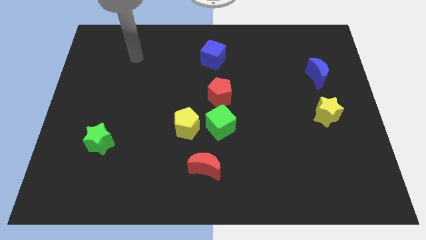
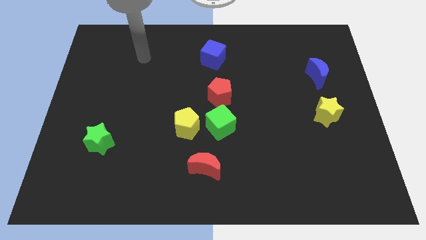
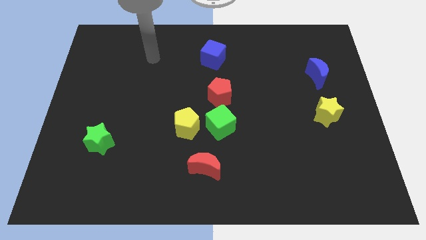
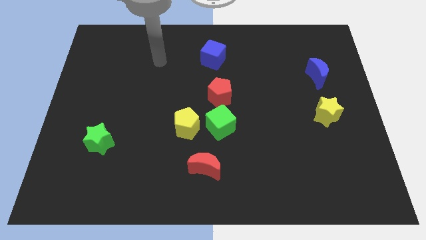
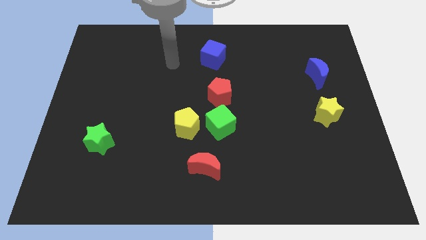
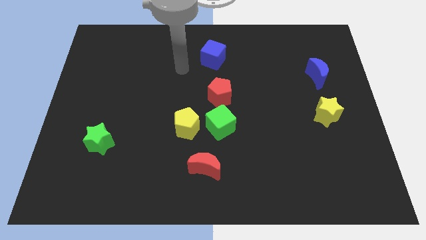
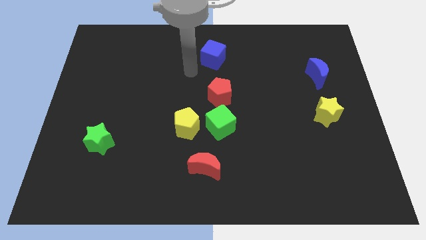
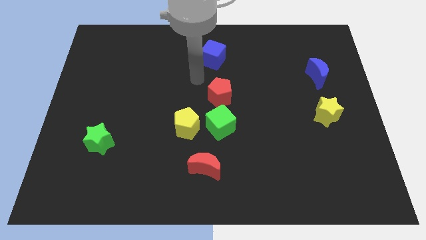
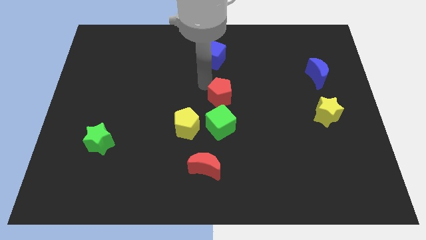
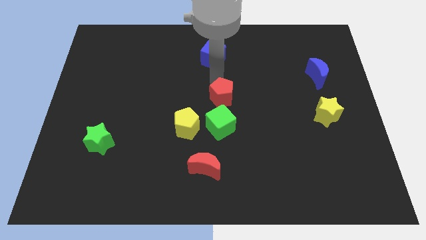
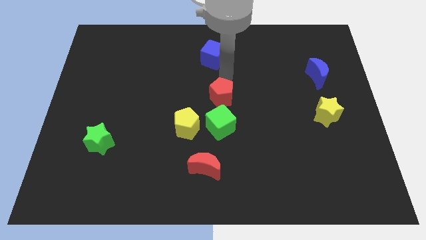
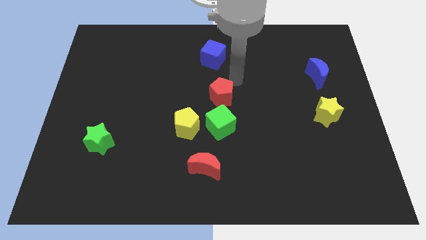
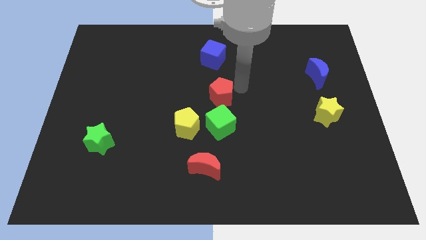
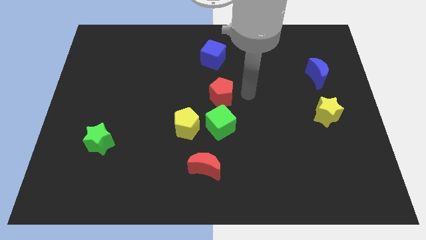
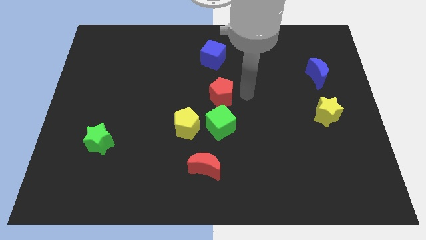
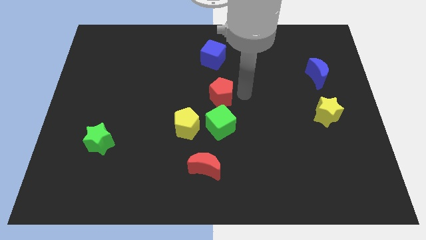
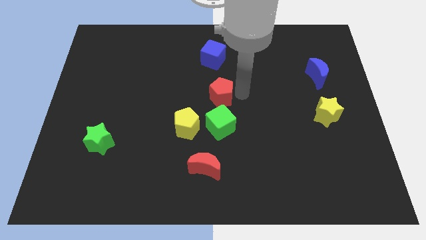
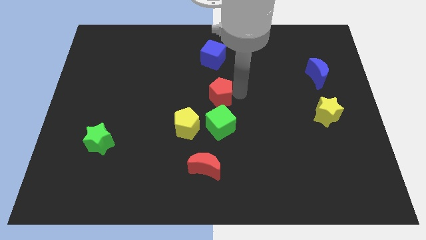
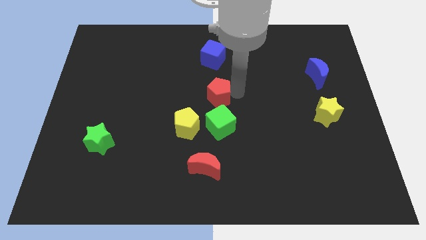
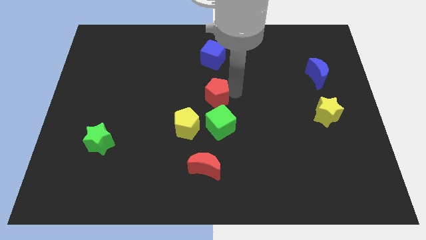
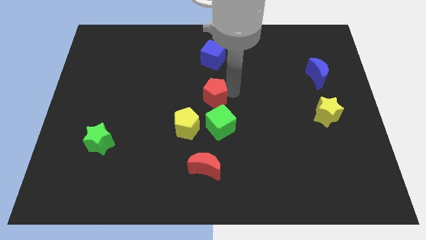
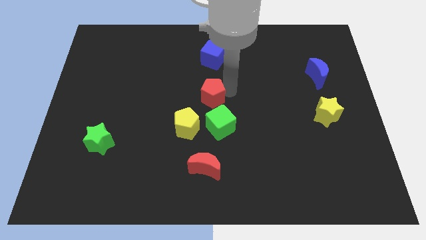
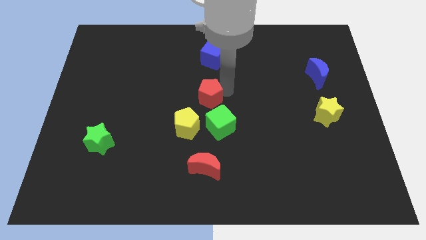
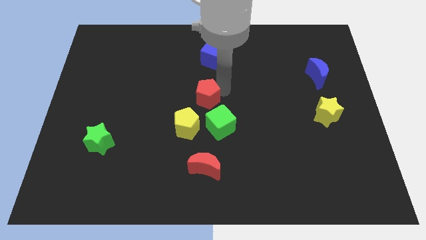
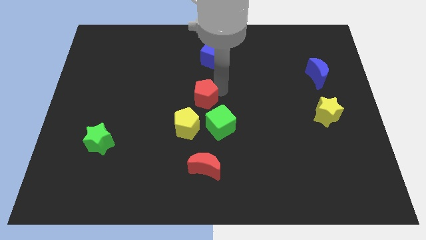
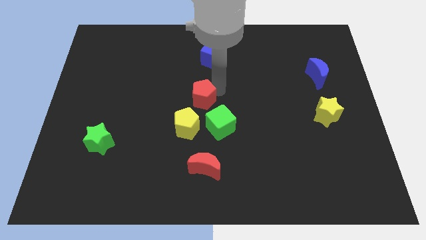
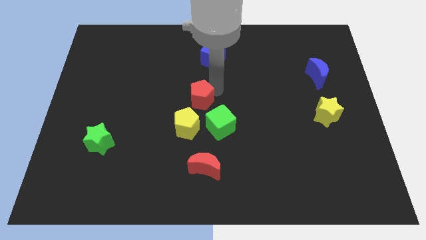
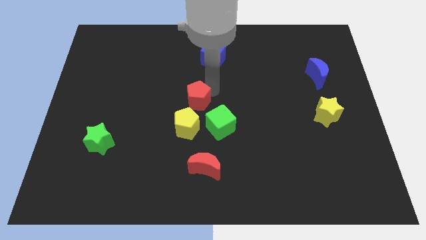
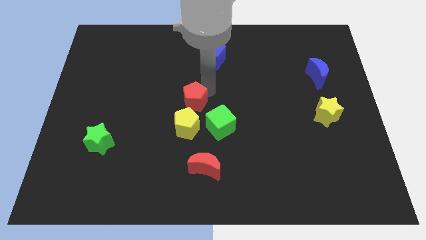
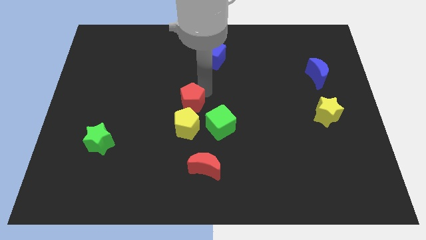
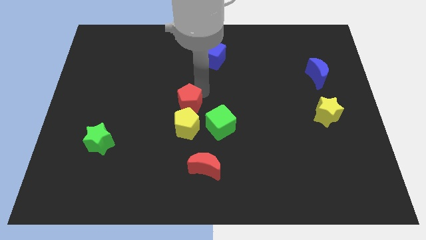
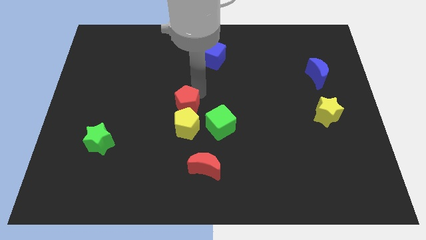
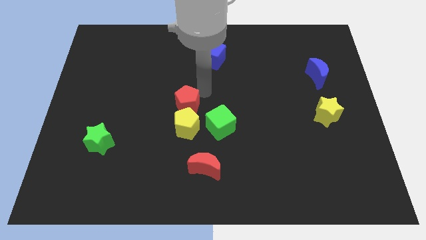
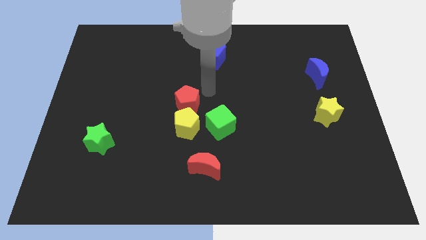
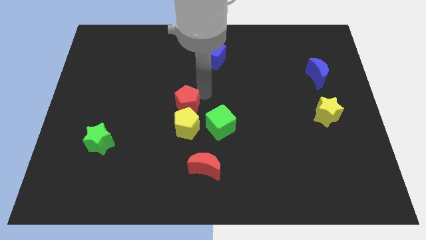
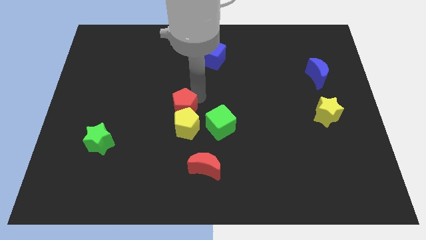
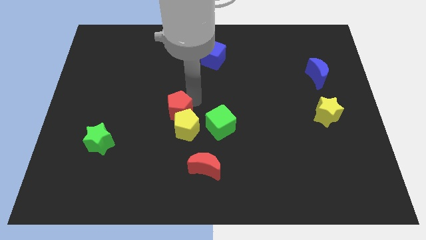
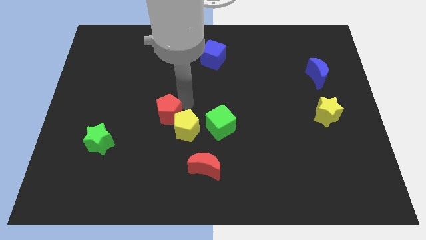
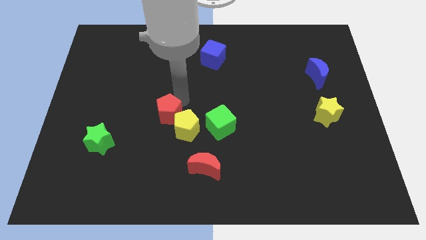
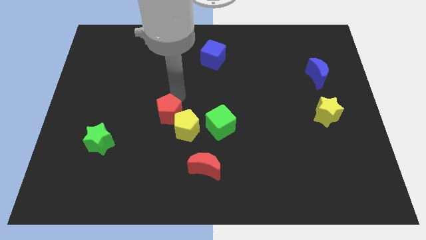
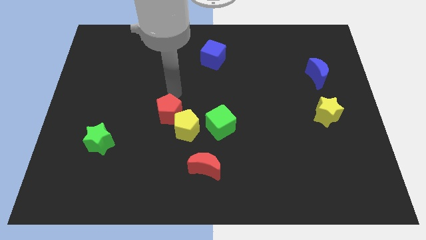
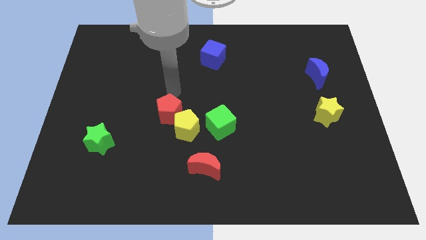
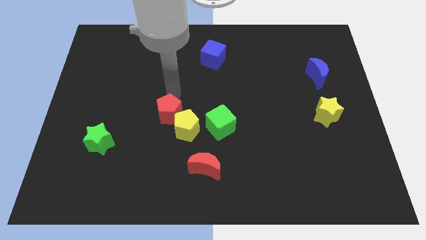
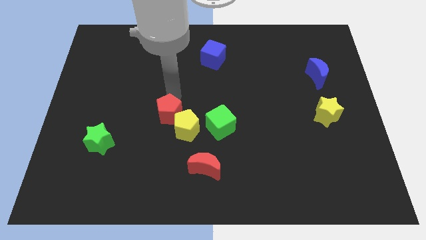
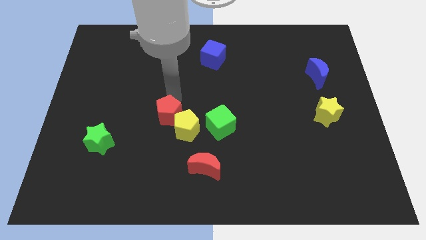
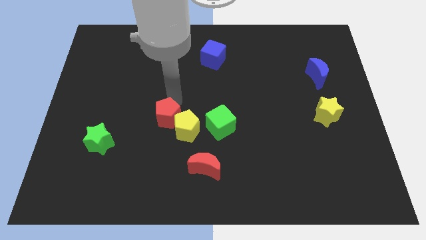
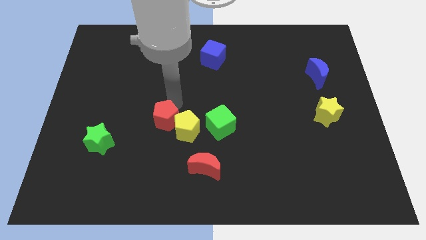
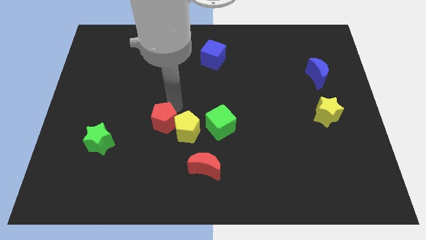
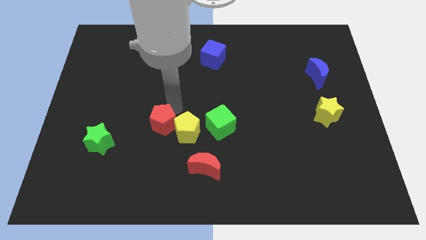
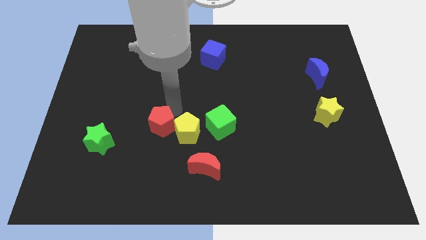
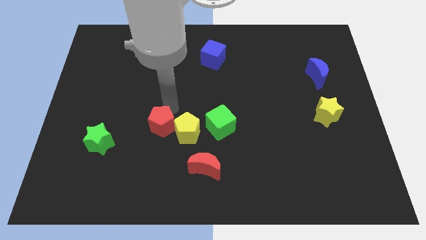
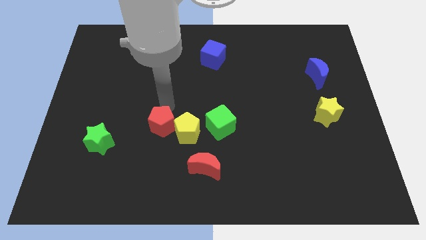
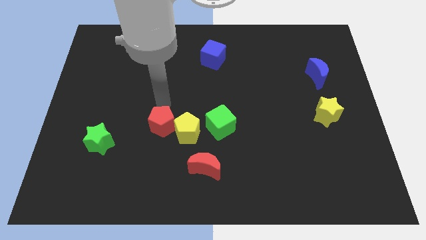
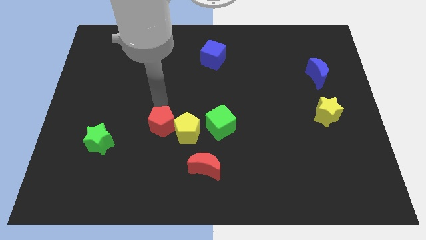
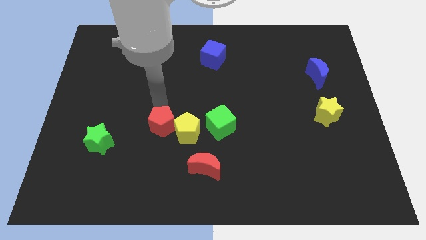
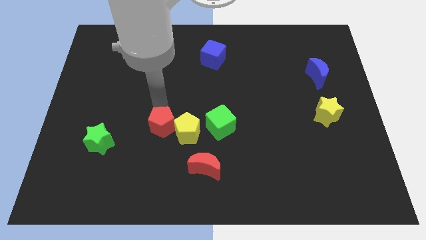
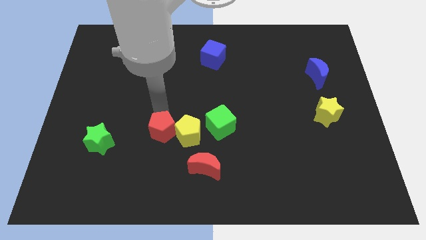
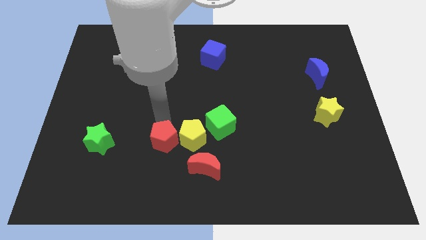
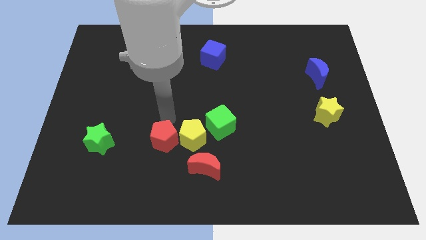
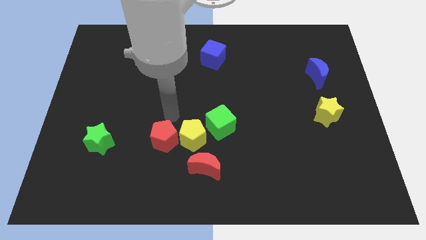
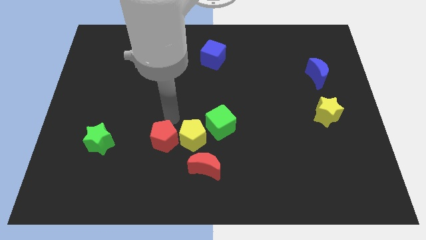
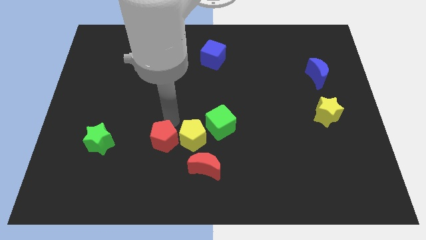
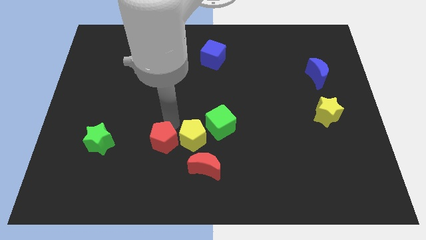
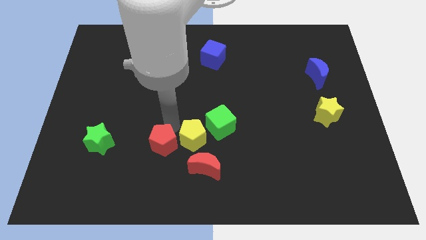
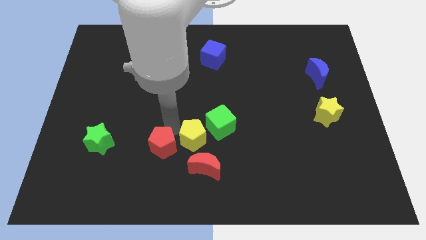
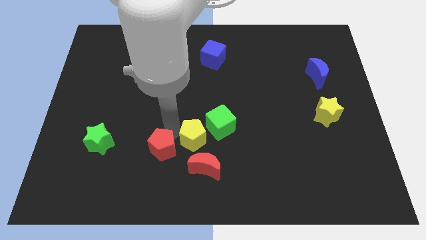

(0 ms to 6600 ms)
put the red pentagon to the left of the red moon

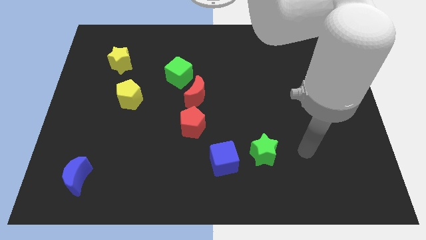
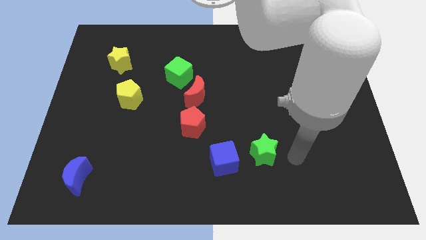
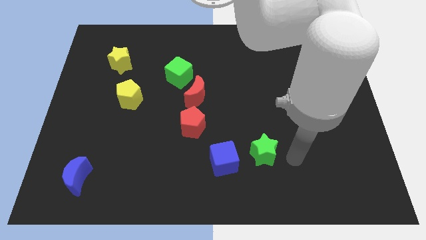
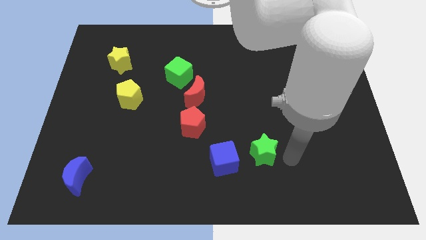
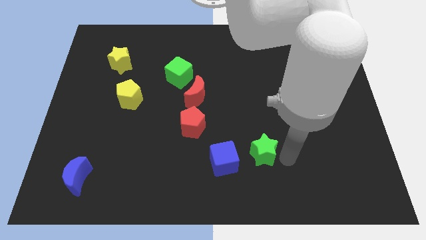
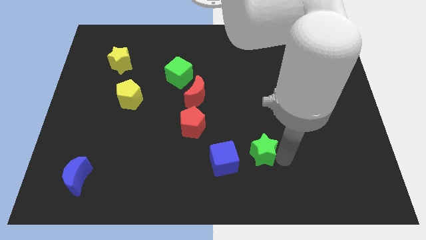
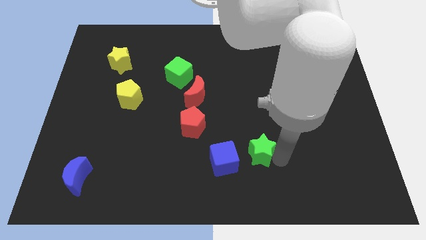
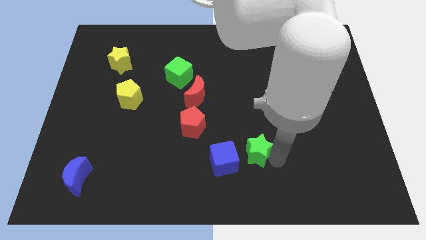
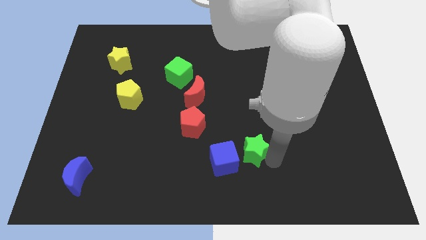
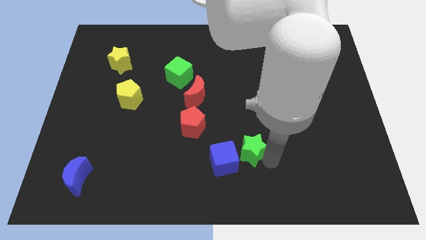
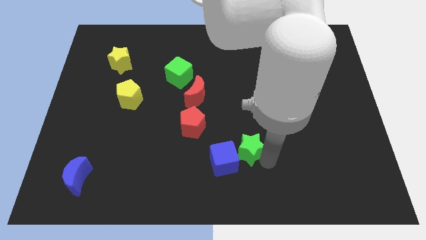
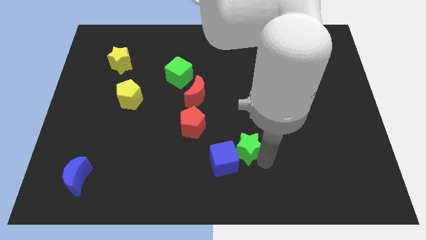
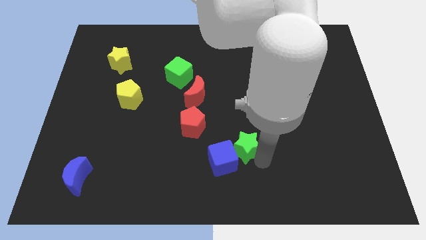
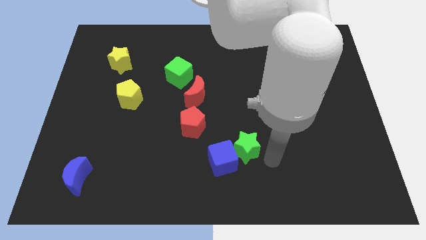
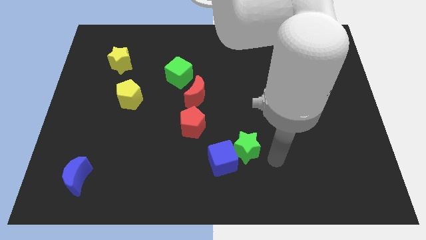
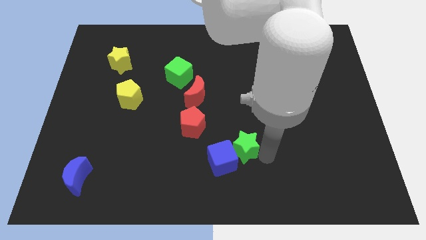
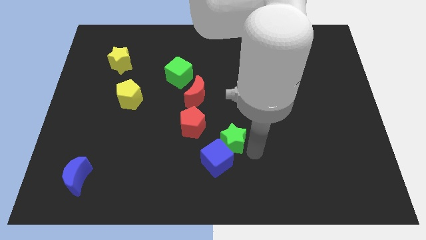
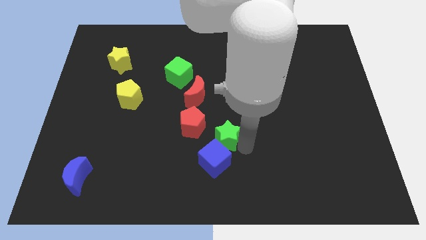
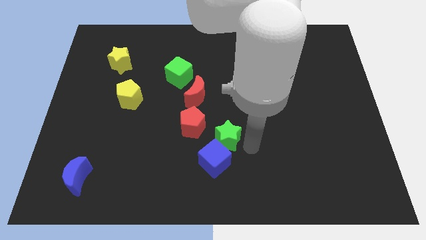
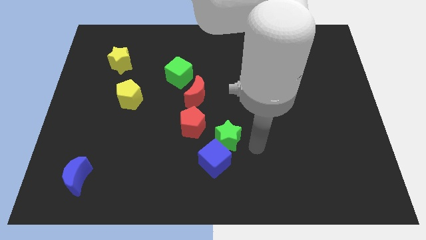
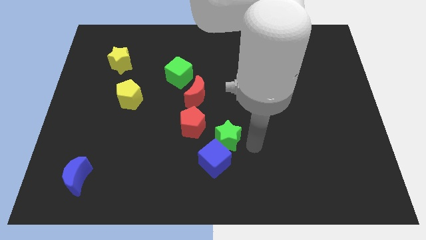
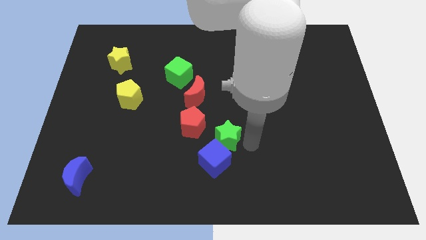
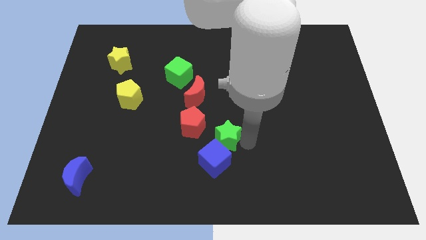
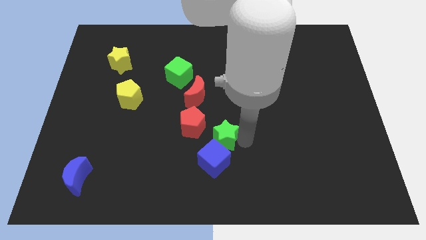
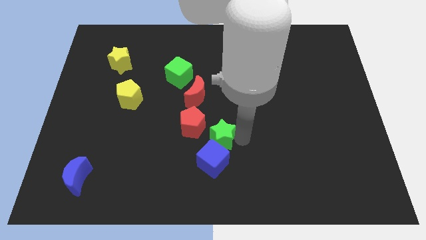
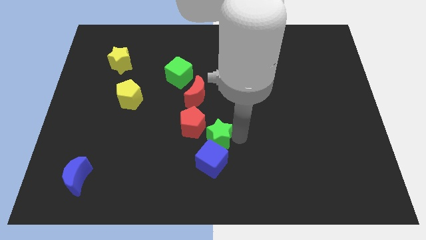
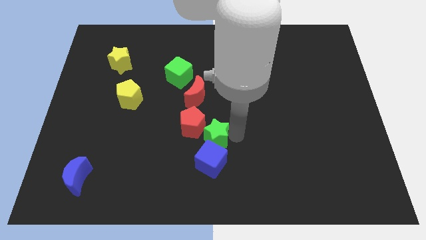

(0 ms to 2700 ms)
slide the green star to the bottom of the red moon
